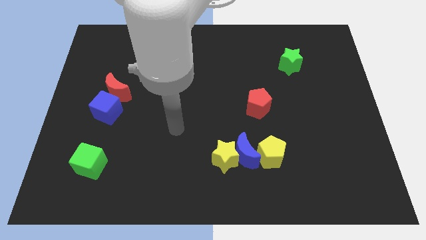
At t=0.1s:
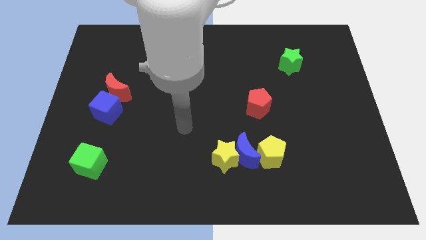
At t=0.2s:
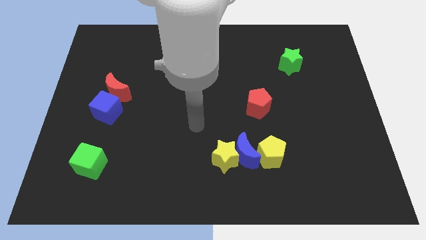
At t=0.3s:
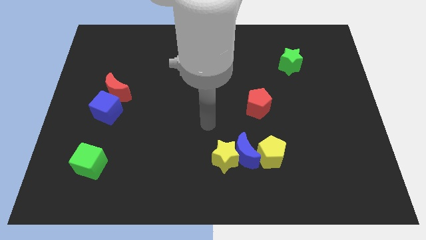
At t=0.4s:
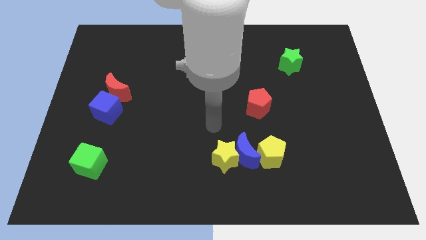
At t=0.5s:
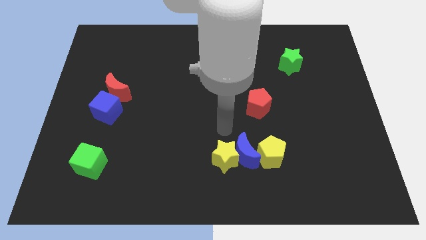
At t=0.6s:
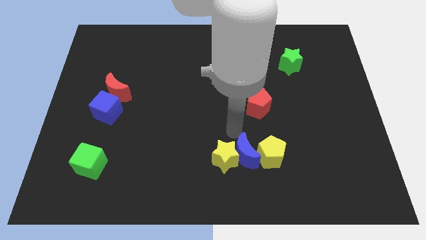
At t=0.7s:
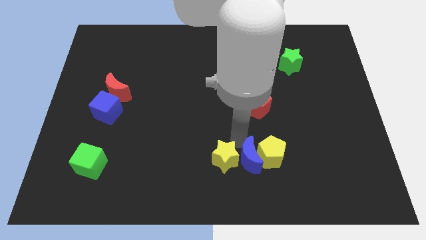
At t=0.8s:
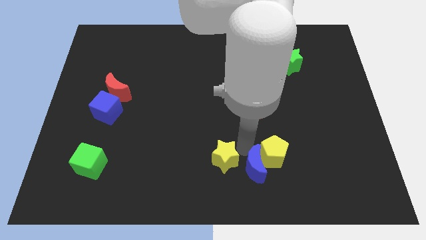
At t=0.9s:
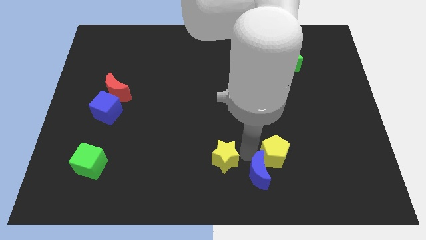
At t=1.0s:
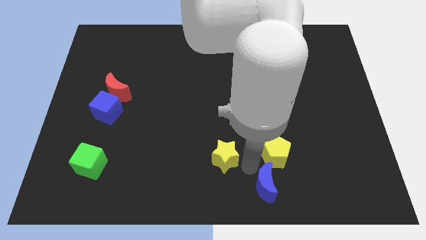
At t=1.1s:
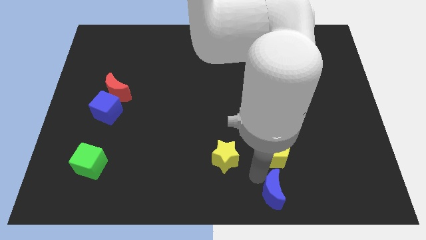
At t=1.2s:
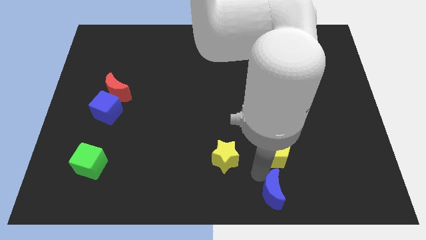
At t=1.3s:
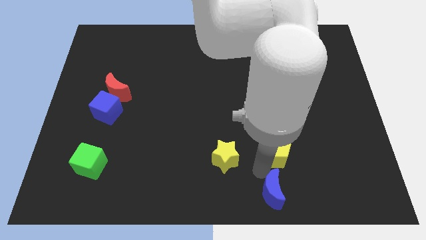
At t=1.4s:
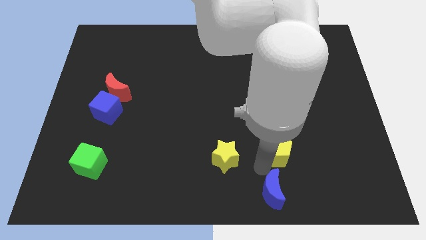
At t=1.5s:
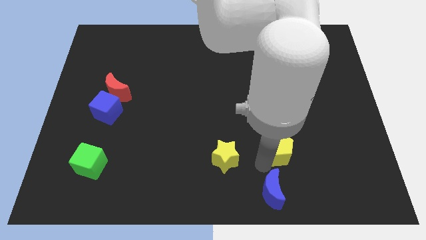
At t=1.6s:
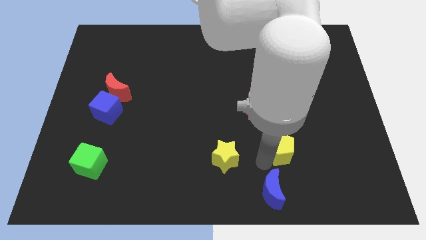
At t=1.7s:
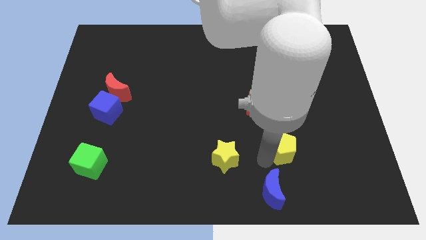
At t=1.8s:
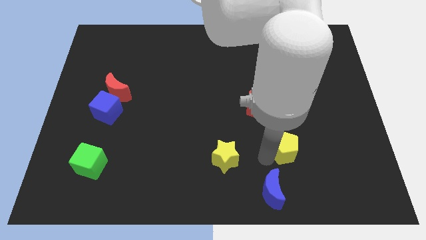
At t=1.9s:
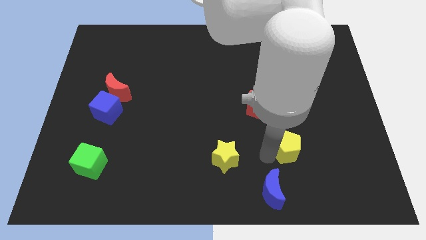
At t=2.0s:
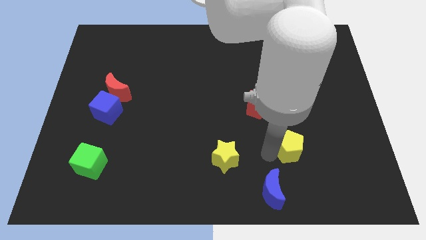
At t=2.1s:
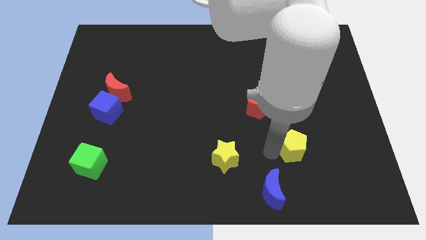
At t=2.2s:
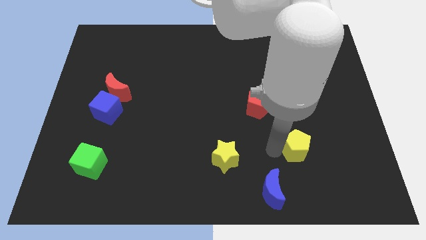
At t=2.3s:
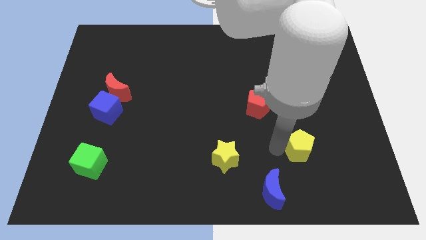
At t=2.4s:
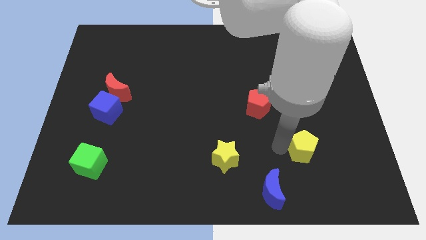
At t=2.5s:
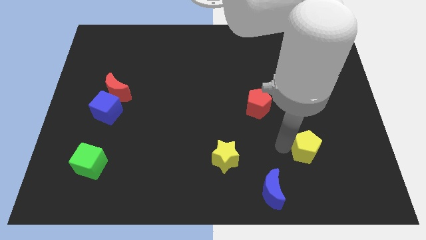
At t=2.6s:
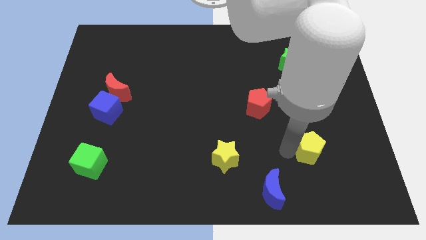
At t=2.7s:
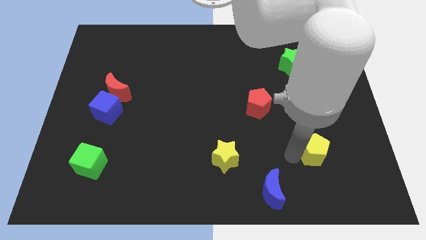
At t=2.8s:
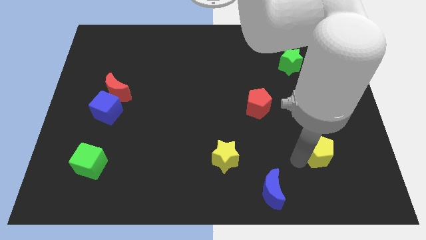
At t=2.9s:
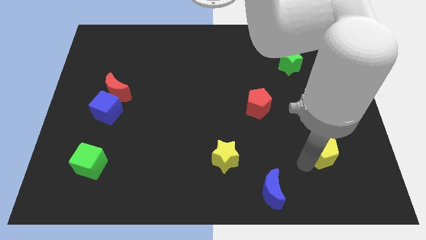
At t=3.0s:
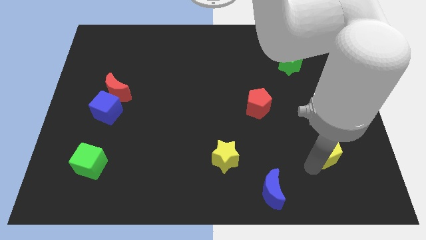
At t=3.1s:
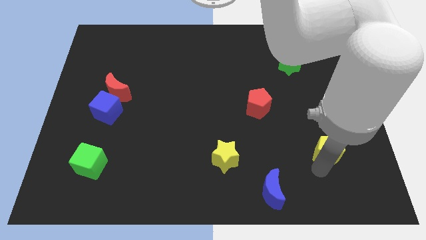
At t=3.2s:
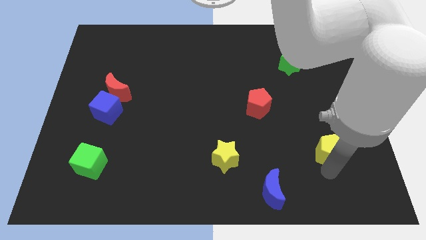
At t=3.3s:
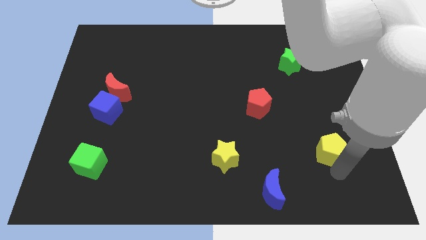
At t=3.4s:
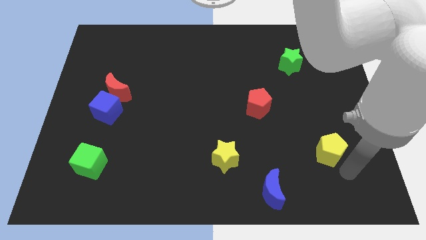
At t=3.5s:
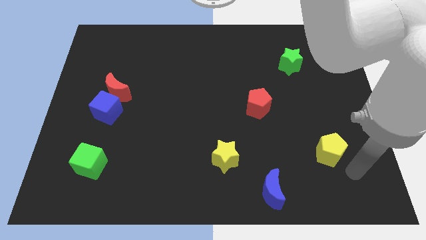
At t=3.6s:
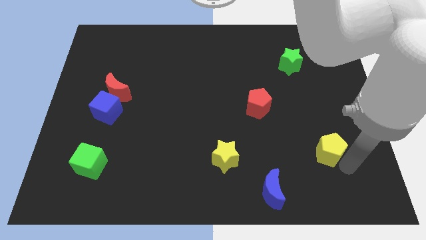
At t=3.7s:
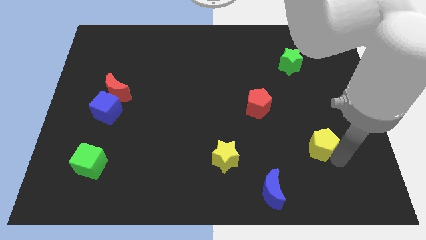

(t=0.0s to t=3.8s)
move the yellow pentagon upwards and to the right slightly

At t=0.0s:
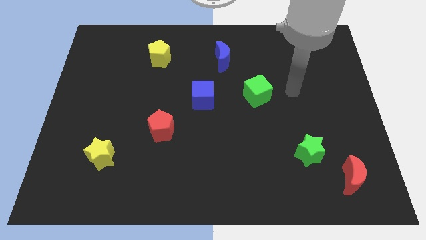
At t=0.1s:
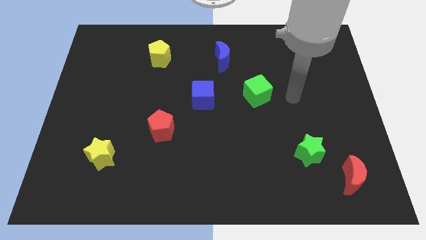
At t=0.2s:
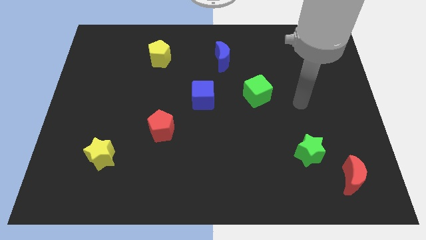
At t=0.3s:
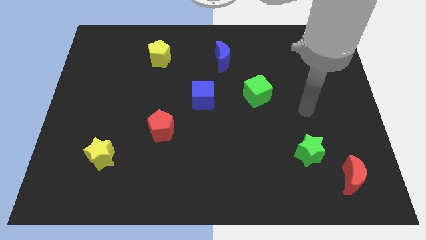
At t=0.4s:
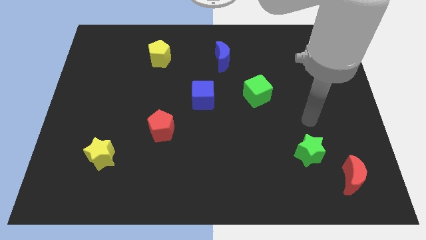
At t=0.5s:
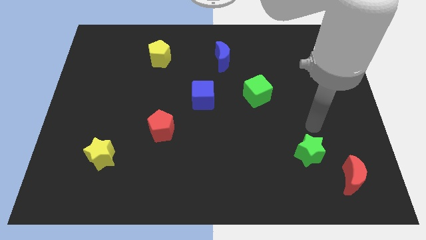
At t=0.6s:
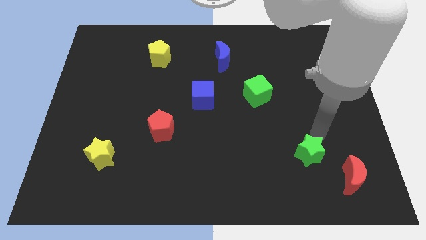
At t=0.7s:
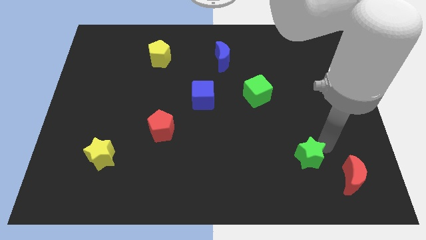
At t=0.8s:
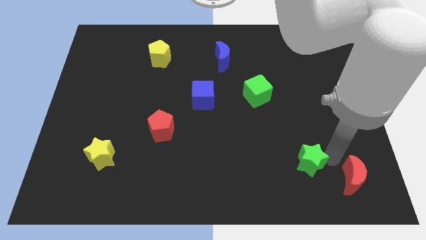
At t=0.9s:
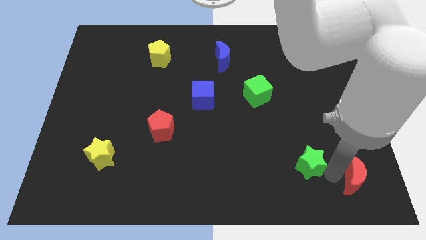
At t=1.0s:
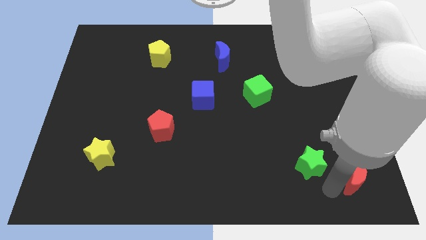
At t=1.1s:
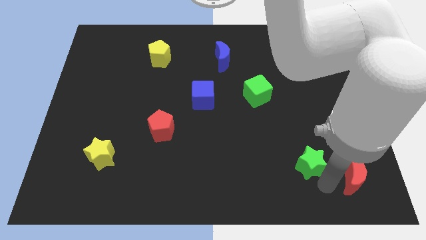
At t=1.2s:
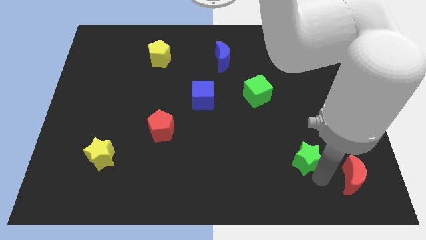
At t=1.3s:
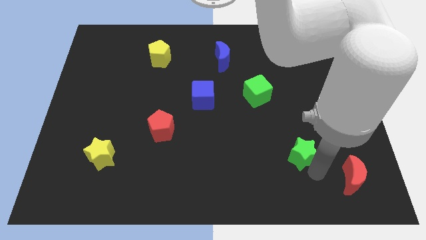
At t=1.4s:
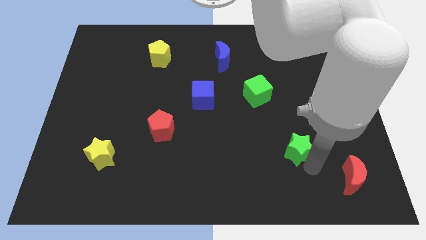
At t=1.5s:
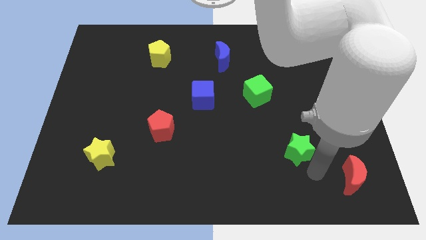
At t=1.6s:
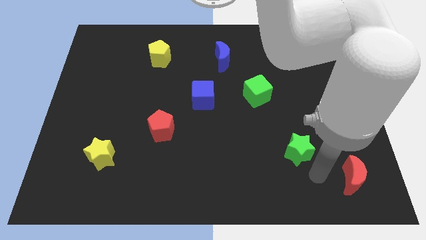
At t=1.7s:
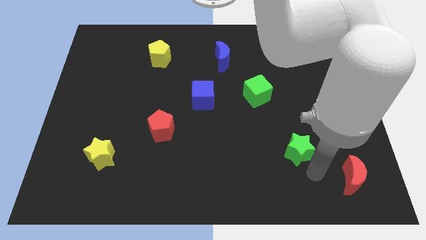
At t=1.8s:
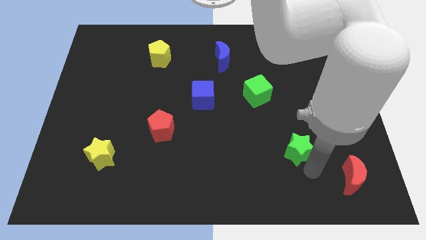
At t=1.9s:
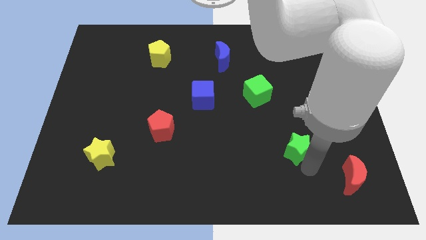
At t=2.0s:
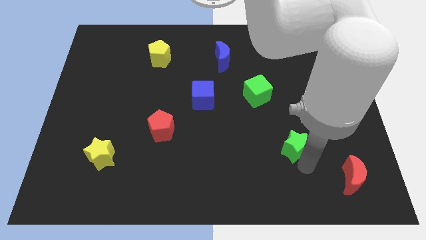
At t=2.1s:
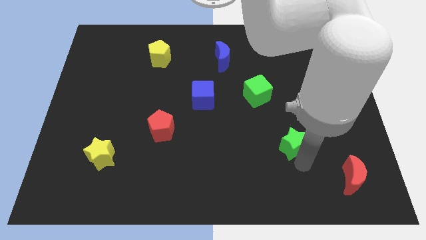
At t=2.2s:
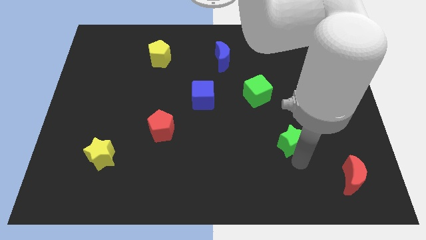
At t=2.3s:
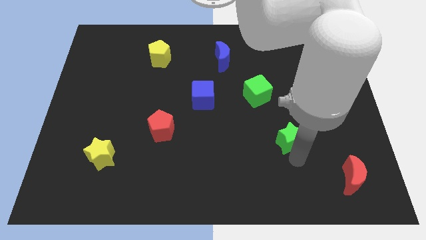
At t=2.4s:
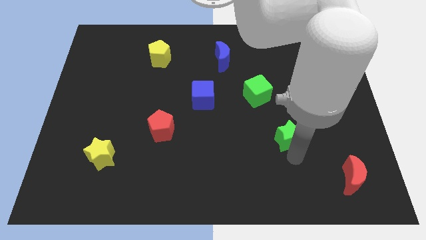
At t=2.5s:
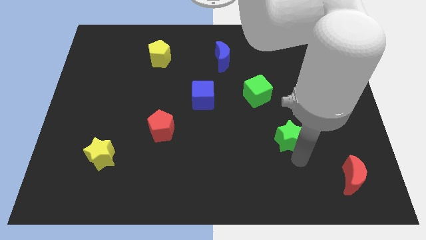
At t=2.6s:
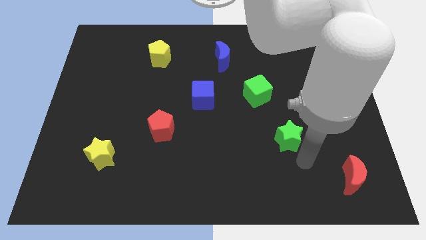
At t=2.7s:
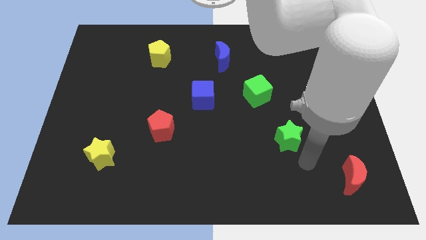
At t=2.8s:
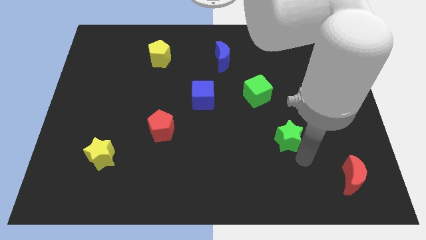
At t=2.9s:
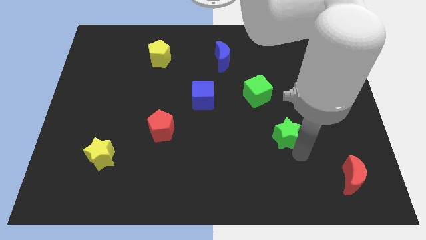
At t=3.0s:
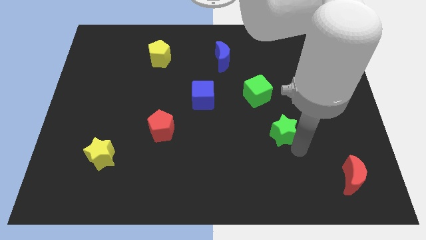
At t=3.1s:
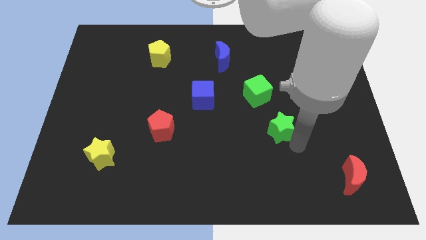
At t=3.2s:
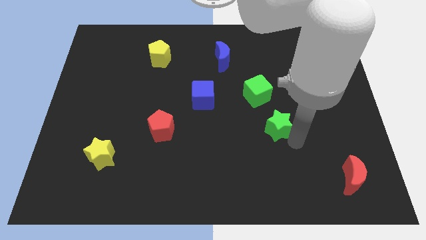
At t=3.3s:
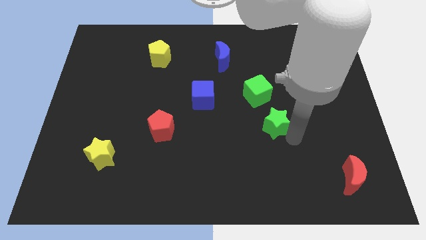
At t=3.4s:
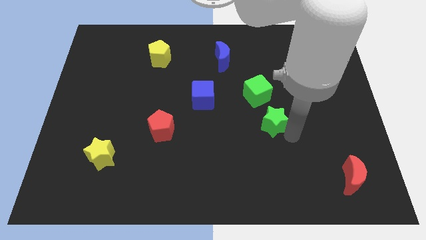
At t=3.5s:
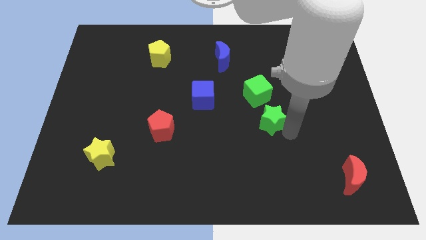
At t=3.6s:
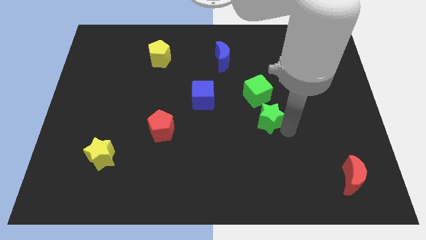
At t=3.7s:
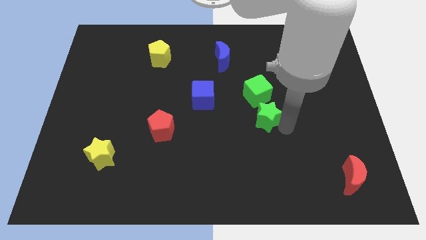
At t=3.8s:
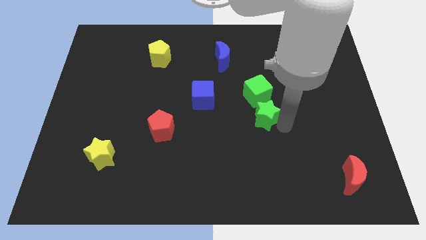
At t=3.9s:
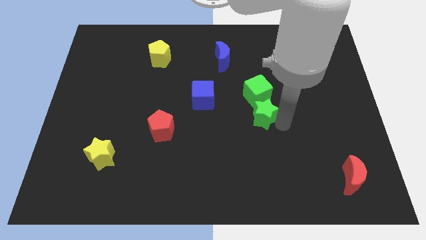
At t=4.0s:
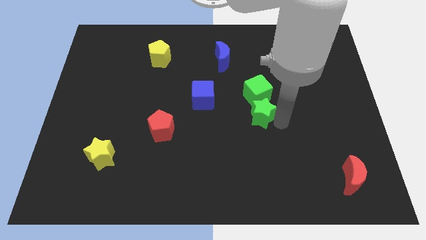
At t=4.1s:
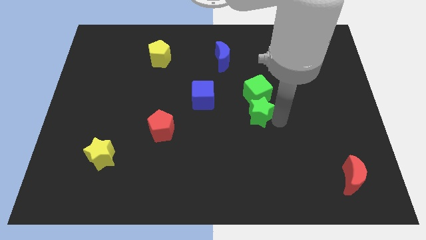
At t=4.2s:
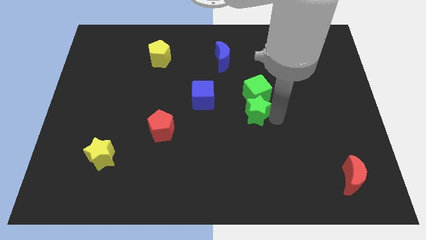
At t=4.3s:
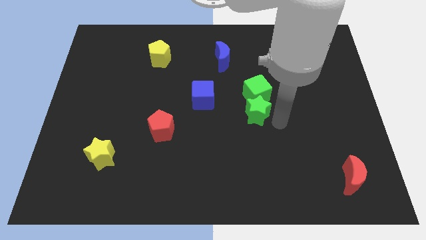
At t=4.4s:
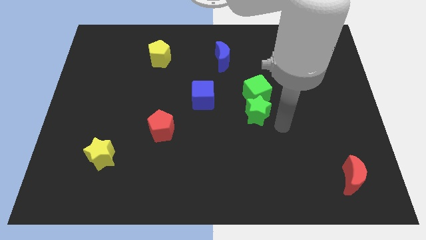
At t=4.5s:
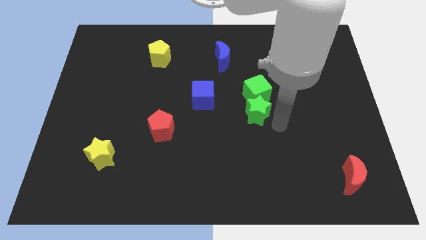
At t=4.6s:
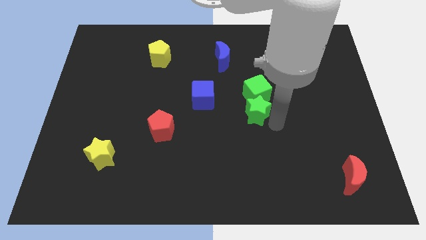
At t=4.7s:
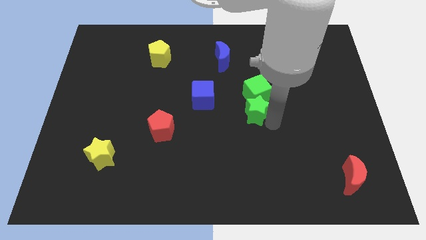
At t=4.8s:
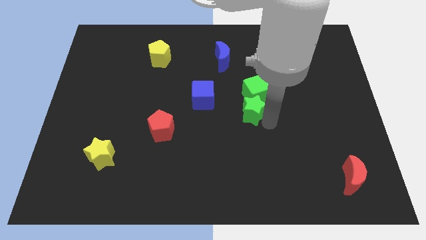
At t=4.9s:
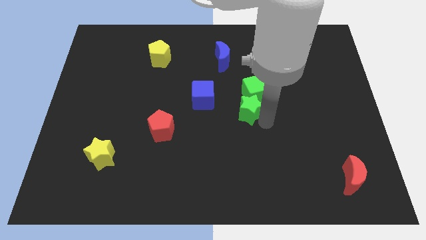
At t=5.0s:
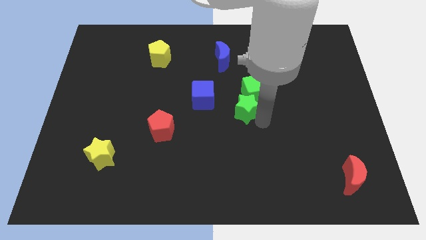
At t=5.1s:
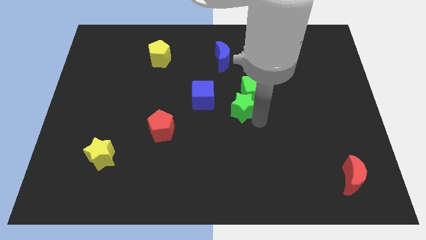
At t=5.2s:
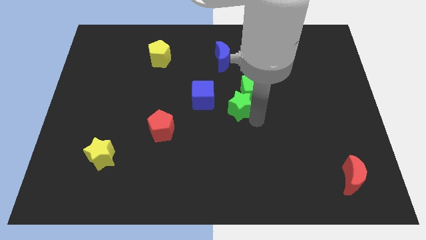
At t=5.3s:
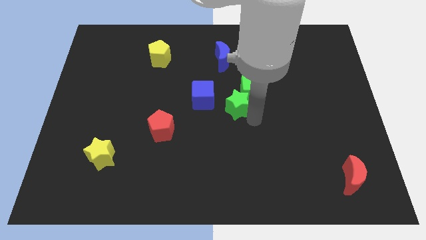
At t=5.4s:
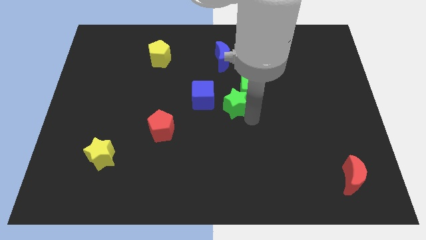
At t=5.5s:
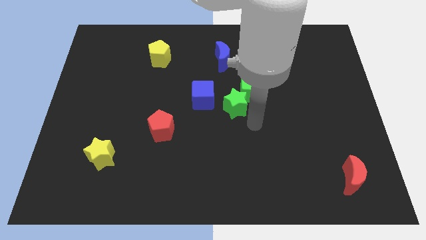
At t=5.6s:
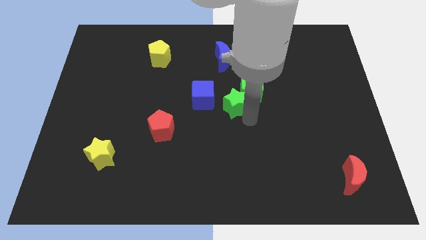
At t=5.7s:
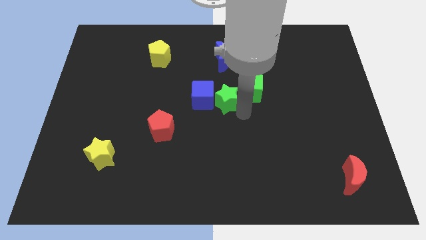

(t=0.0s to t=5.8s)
slide the green star up and left diagonally
